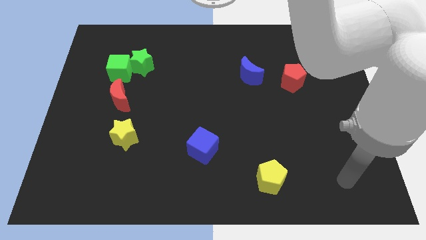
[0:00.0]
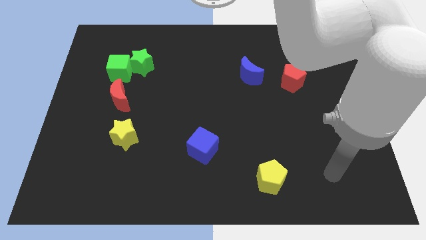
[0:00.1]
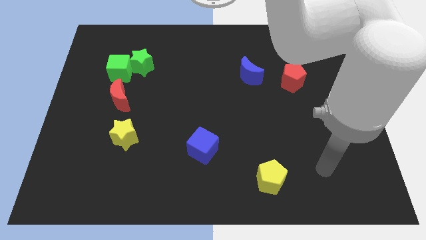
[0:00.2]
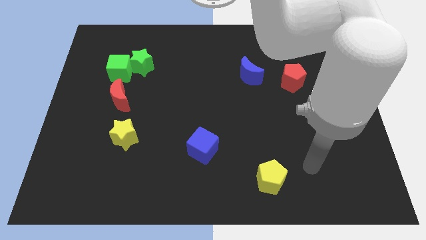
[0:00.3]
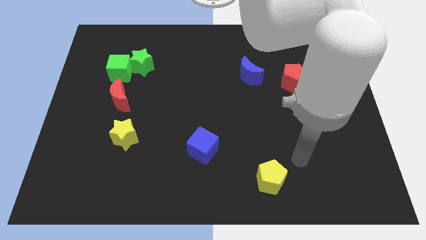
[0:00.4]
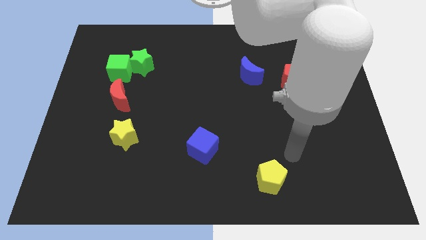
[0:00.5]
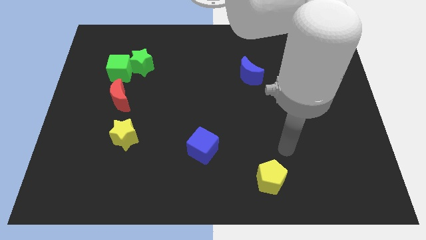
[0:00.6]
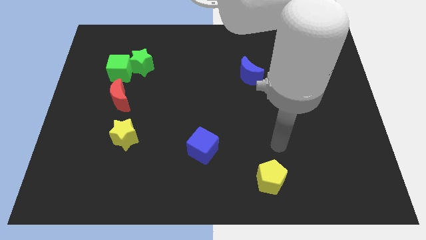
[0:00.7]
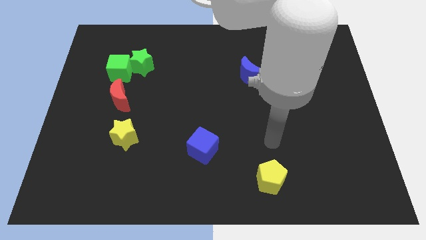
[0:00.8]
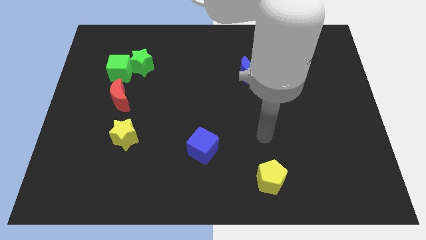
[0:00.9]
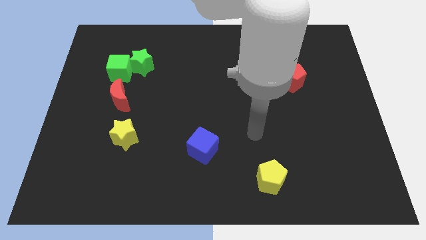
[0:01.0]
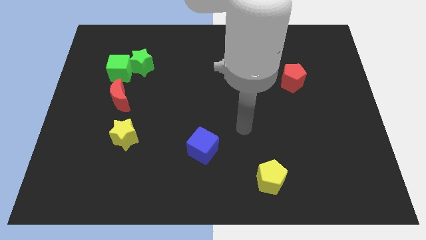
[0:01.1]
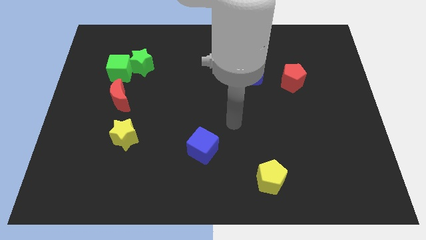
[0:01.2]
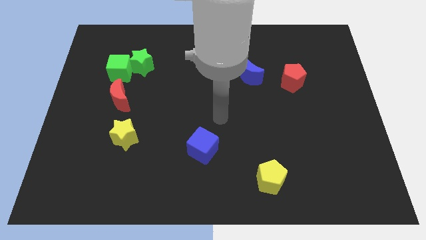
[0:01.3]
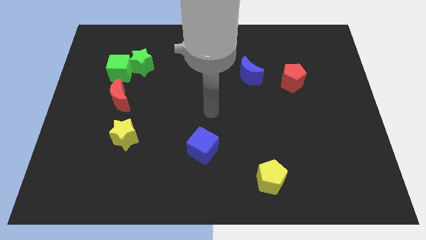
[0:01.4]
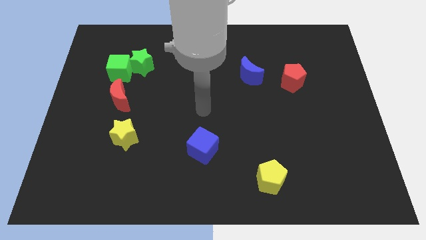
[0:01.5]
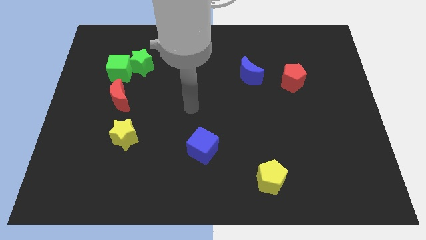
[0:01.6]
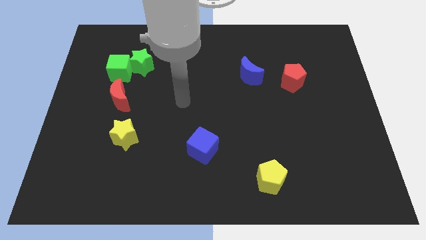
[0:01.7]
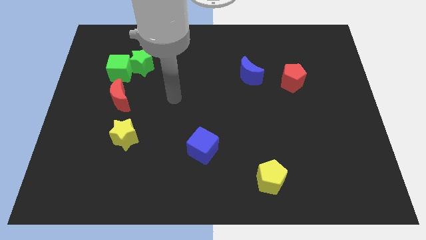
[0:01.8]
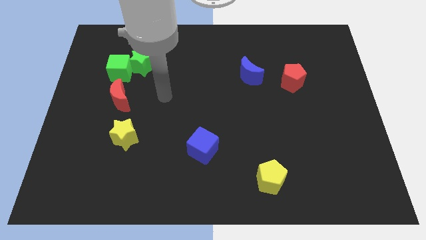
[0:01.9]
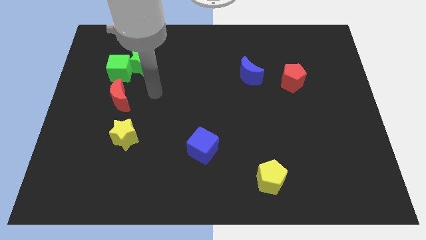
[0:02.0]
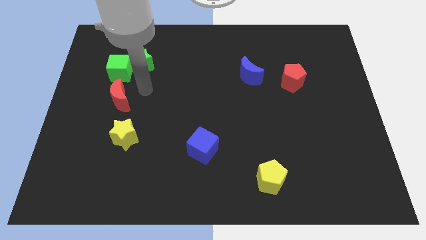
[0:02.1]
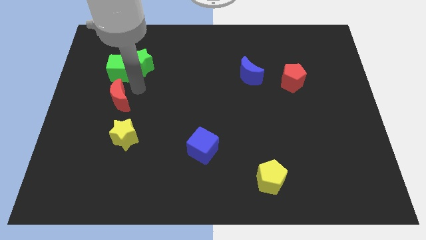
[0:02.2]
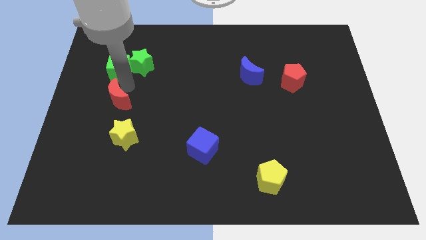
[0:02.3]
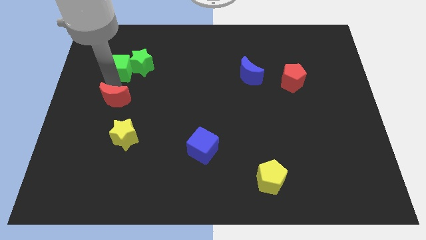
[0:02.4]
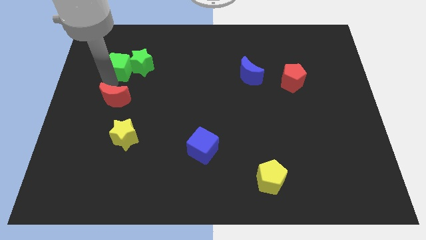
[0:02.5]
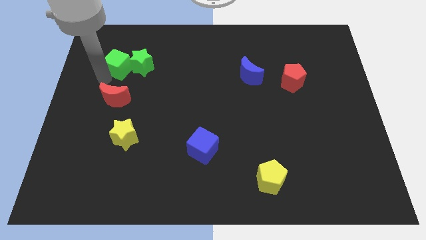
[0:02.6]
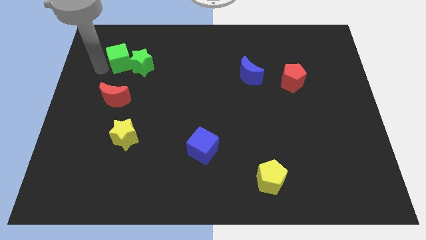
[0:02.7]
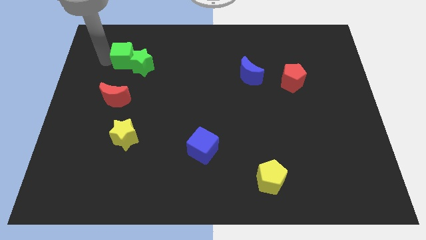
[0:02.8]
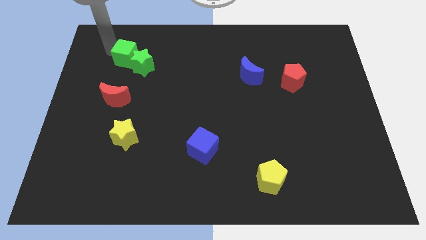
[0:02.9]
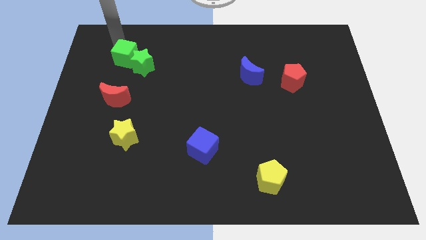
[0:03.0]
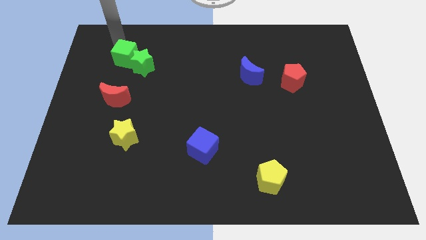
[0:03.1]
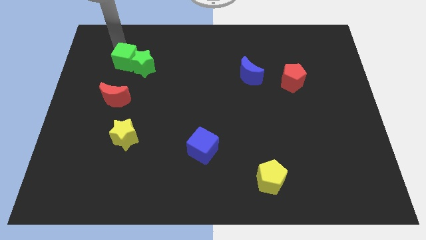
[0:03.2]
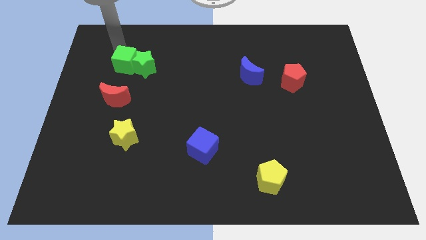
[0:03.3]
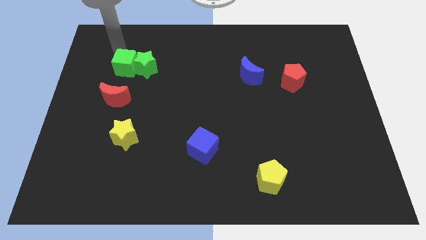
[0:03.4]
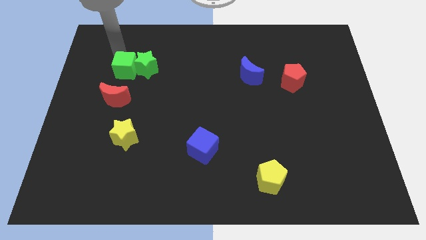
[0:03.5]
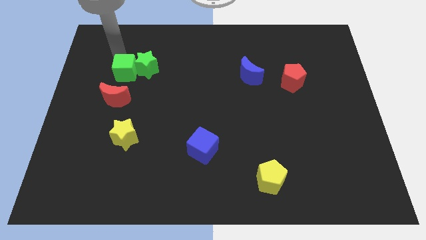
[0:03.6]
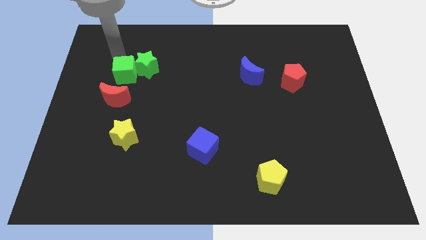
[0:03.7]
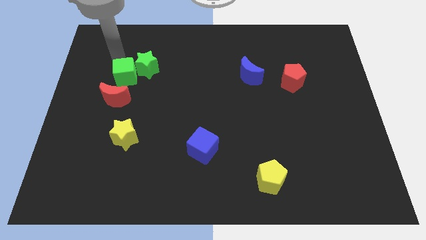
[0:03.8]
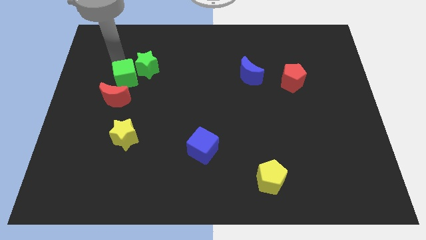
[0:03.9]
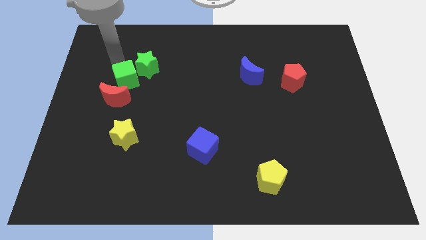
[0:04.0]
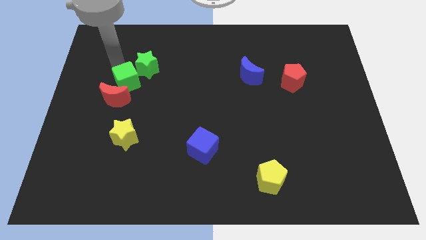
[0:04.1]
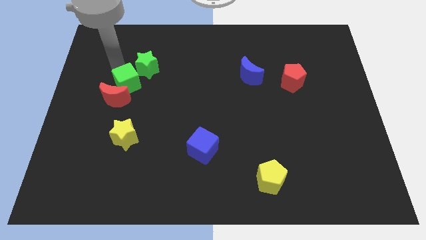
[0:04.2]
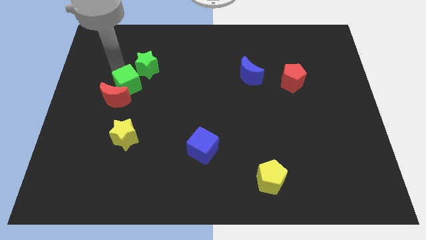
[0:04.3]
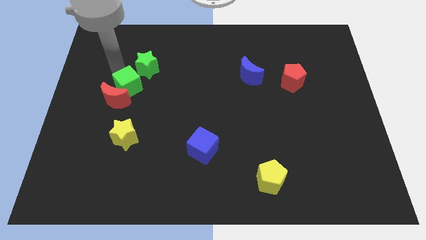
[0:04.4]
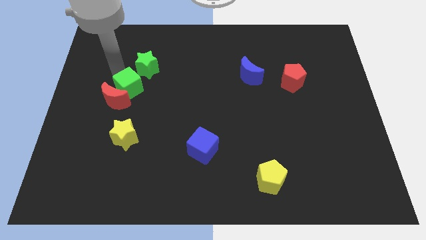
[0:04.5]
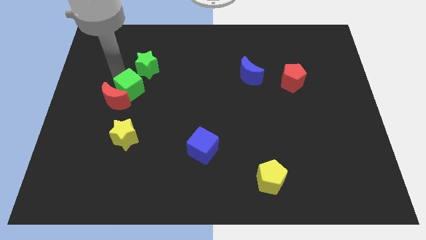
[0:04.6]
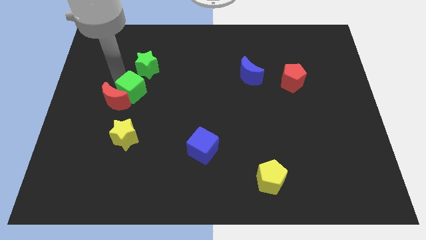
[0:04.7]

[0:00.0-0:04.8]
push the green cube a little bit diagonally downwards and right

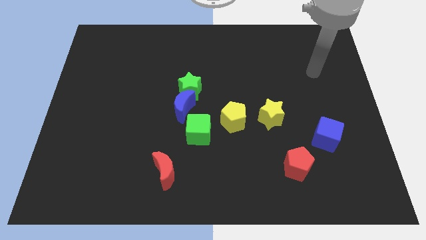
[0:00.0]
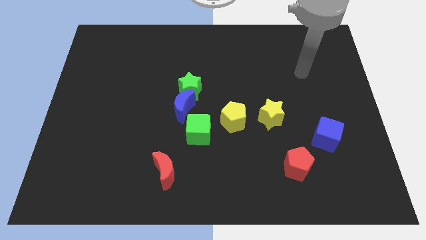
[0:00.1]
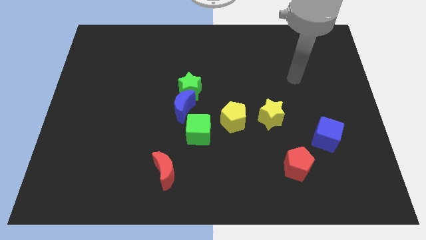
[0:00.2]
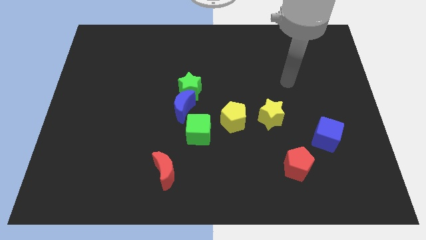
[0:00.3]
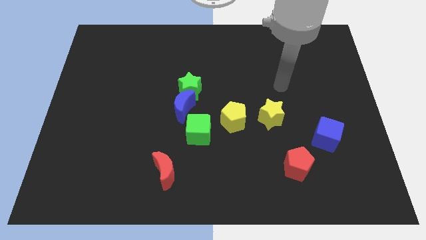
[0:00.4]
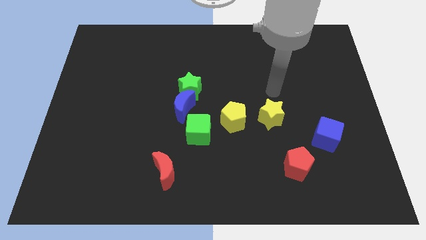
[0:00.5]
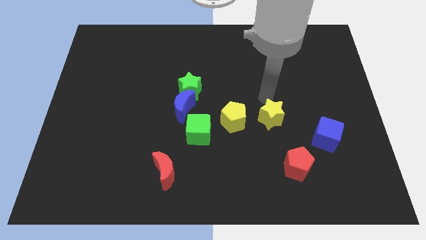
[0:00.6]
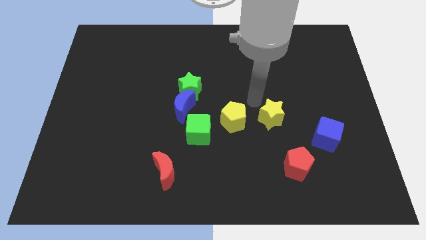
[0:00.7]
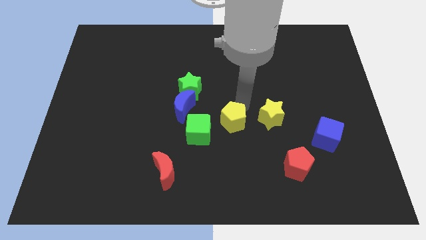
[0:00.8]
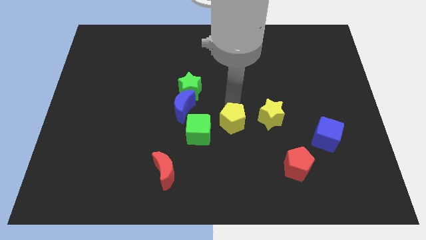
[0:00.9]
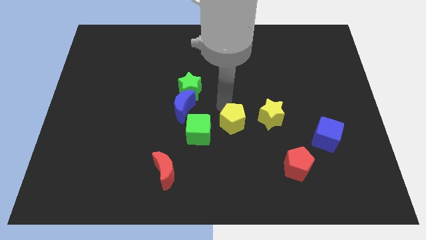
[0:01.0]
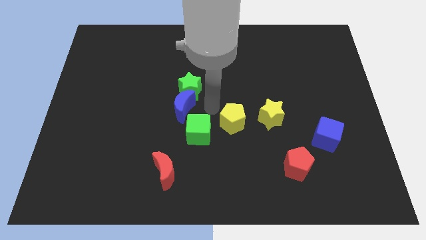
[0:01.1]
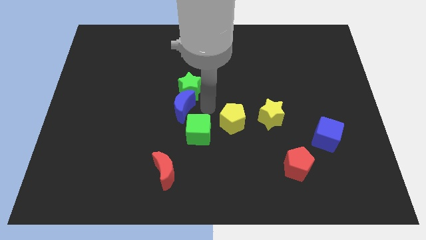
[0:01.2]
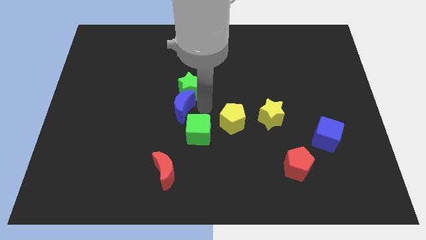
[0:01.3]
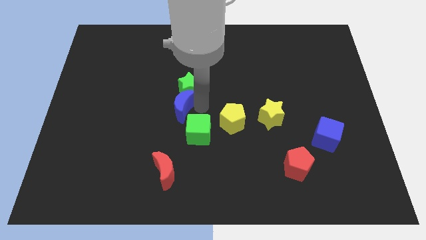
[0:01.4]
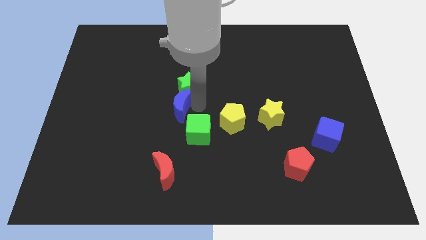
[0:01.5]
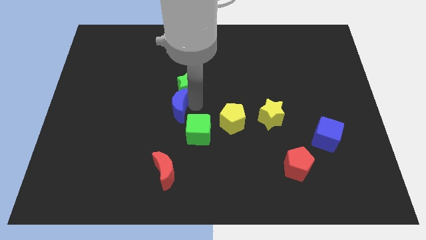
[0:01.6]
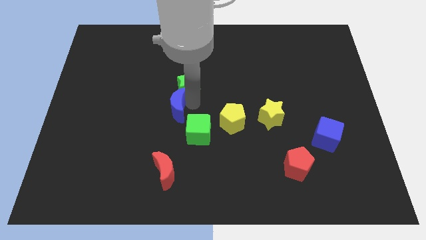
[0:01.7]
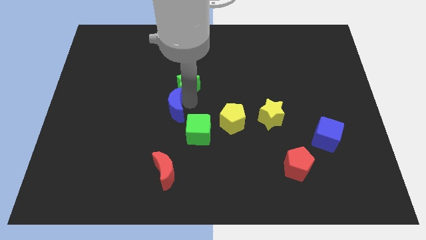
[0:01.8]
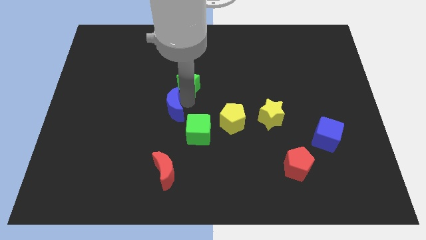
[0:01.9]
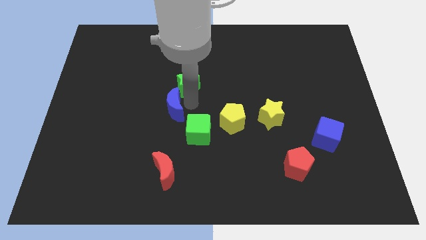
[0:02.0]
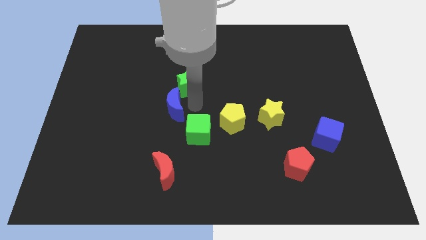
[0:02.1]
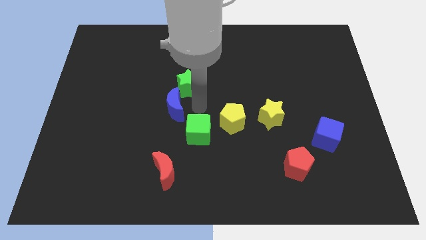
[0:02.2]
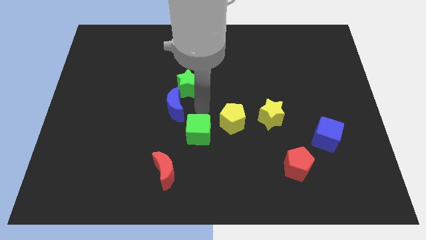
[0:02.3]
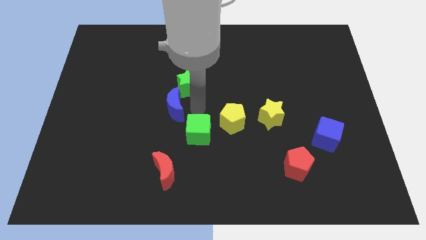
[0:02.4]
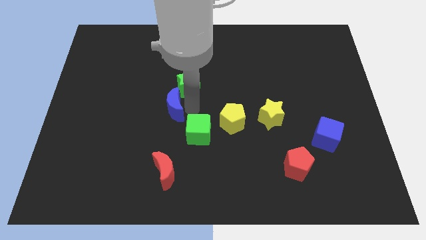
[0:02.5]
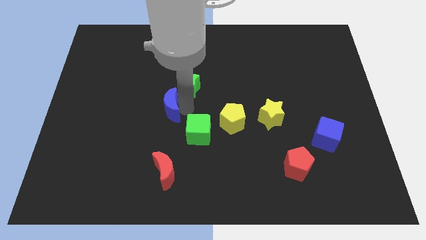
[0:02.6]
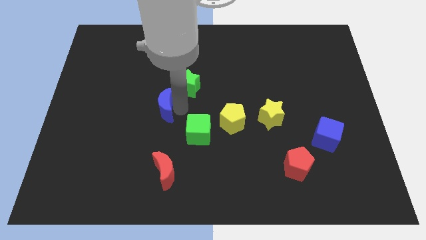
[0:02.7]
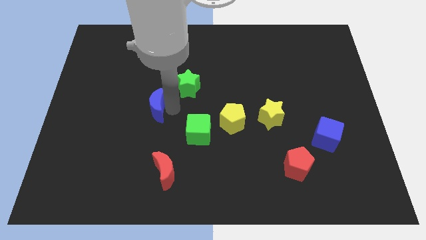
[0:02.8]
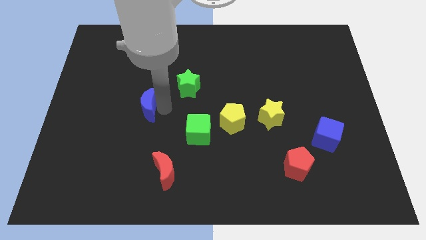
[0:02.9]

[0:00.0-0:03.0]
slightly push the blue moon left

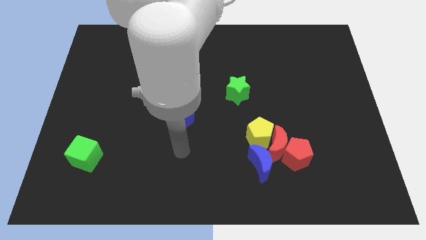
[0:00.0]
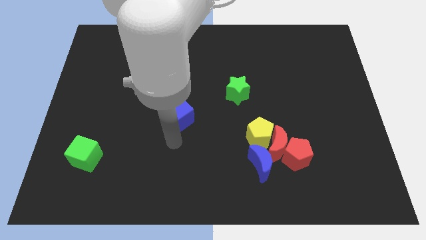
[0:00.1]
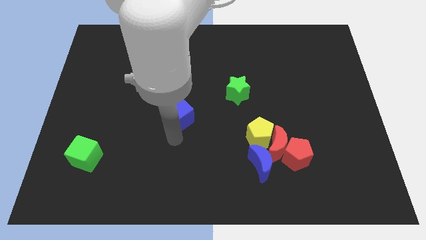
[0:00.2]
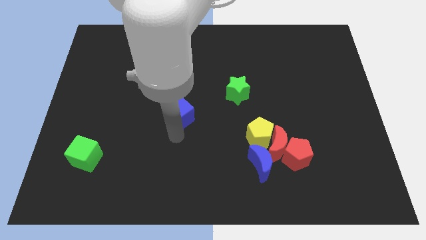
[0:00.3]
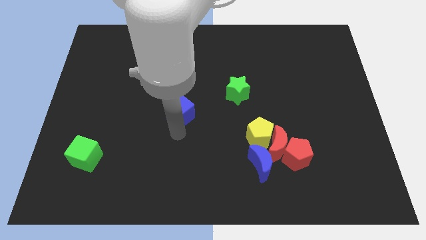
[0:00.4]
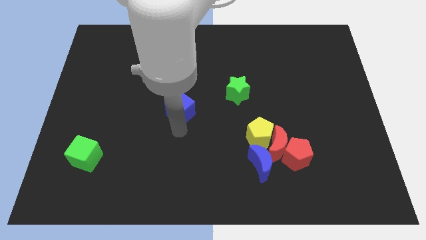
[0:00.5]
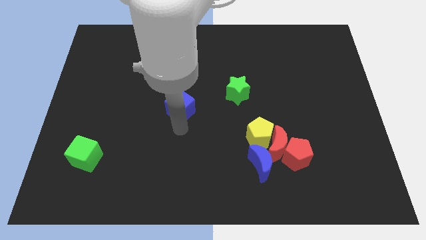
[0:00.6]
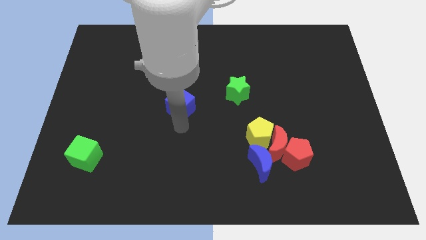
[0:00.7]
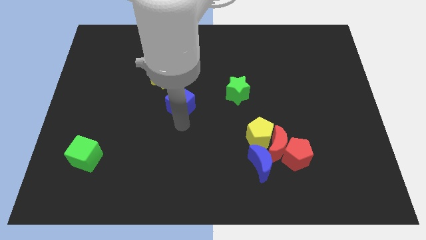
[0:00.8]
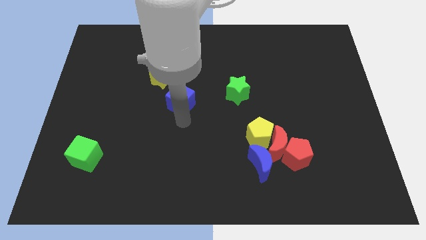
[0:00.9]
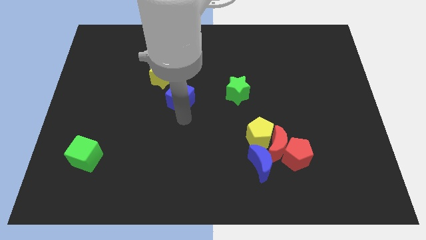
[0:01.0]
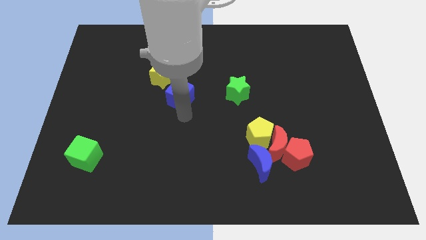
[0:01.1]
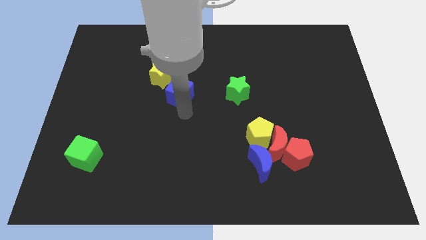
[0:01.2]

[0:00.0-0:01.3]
slide the blue cube a little bit up
